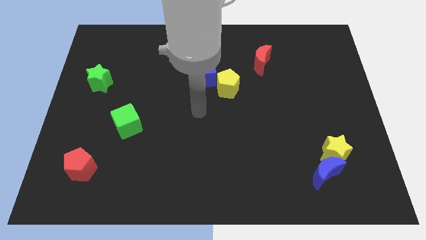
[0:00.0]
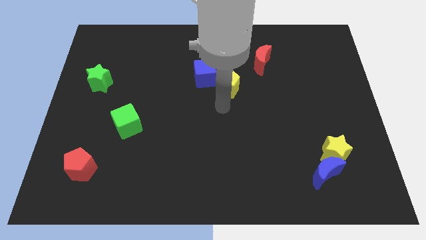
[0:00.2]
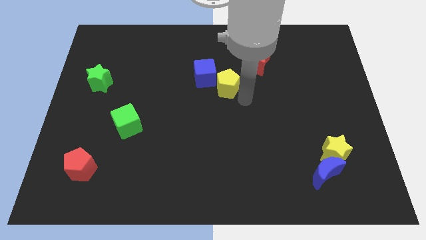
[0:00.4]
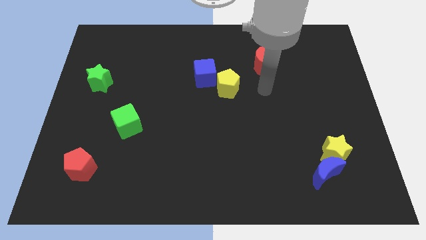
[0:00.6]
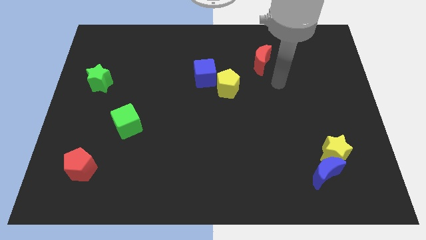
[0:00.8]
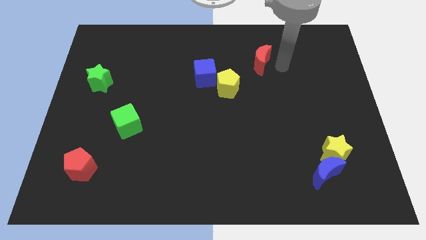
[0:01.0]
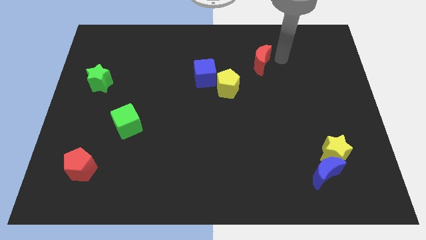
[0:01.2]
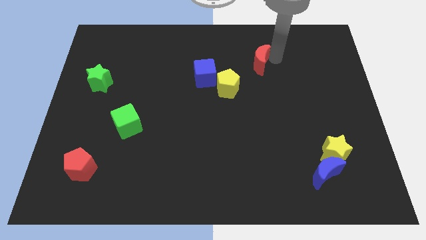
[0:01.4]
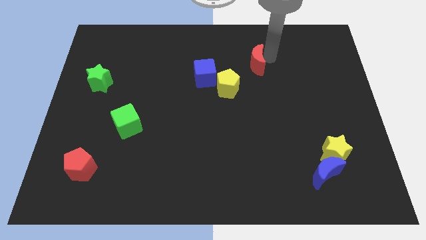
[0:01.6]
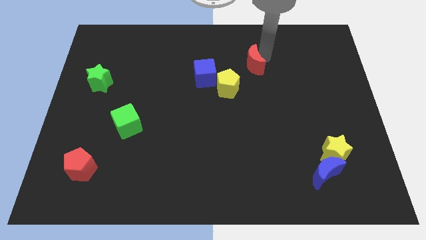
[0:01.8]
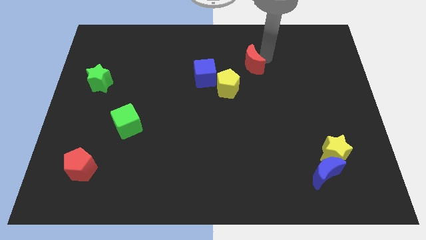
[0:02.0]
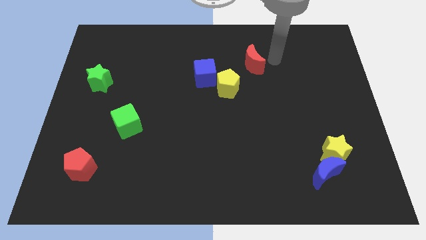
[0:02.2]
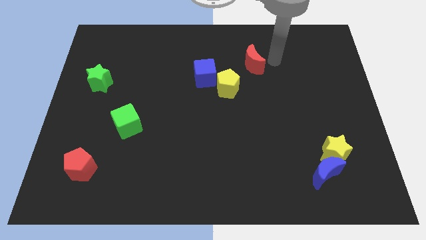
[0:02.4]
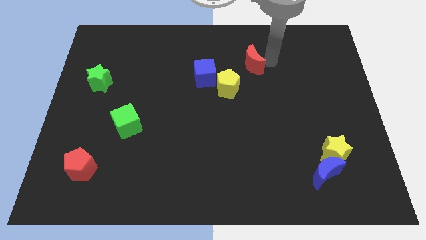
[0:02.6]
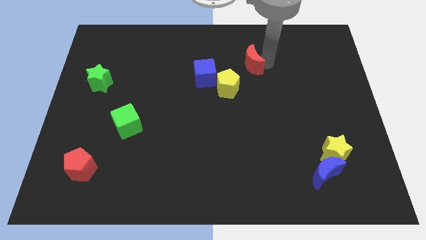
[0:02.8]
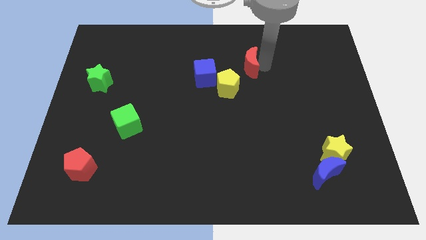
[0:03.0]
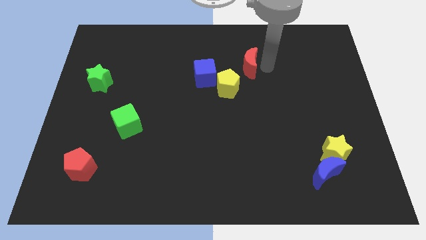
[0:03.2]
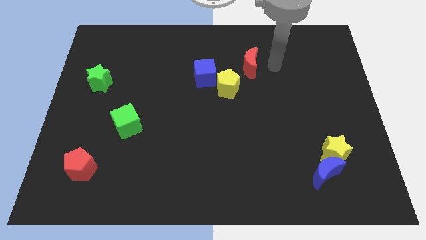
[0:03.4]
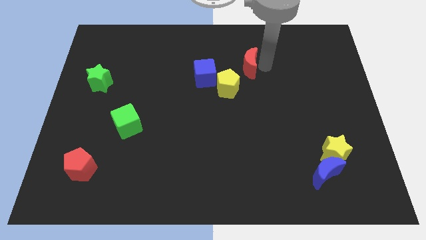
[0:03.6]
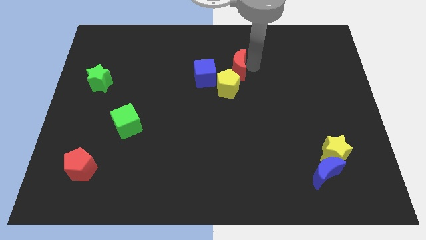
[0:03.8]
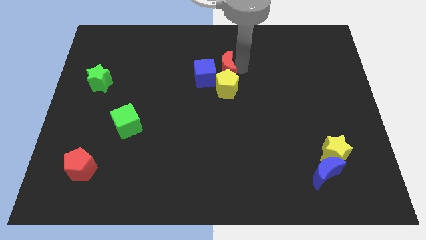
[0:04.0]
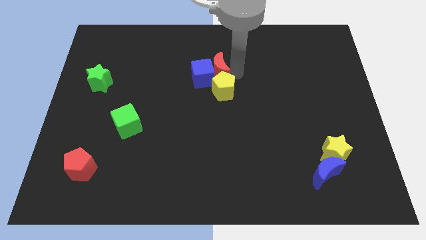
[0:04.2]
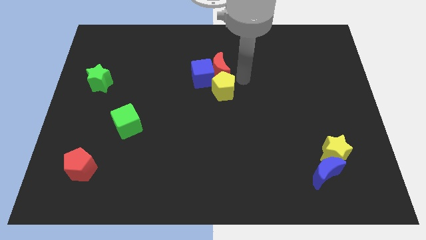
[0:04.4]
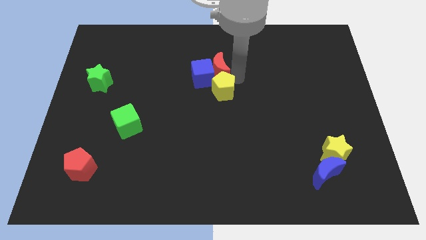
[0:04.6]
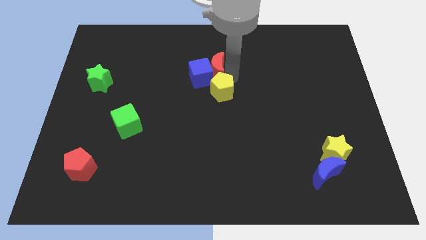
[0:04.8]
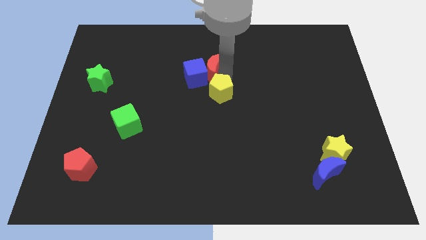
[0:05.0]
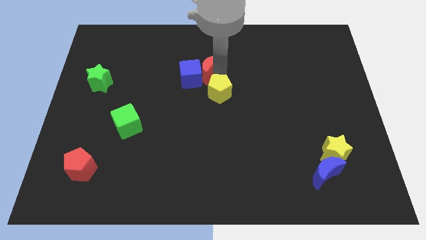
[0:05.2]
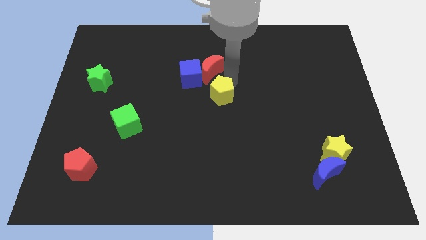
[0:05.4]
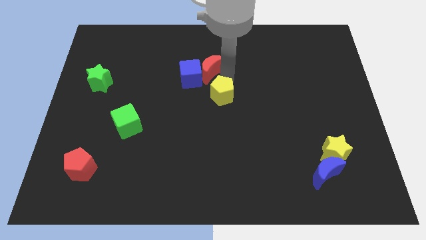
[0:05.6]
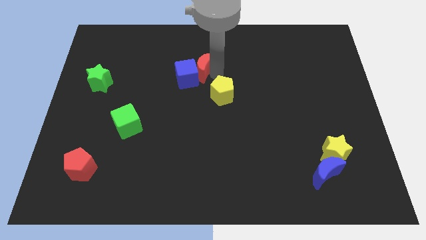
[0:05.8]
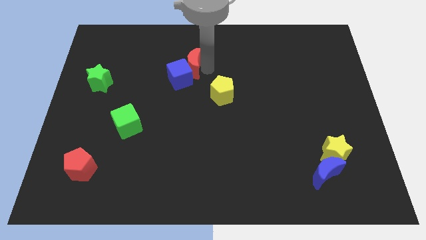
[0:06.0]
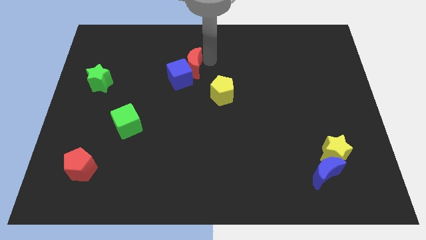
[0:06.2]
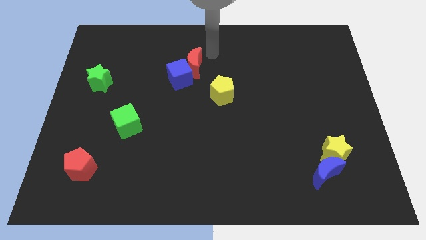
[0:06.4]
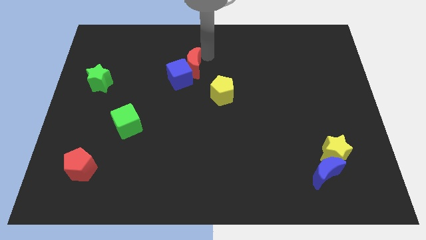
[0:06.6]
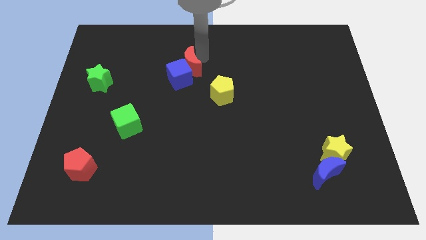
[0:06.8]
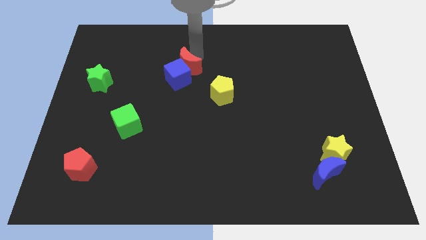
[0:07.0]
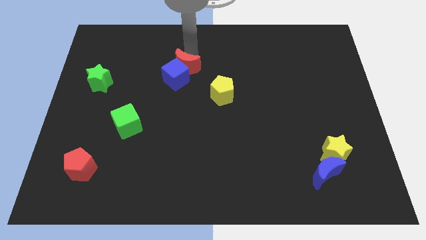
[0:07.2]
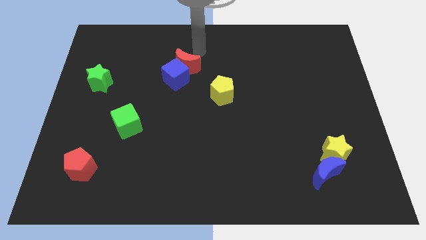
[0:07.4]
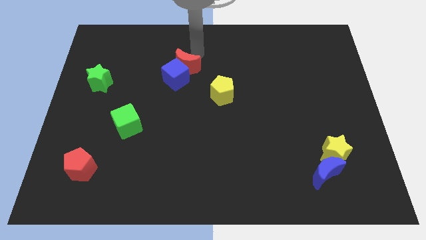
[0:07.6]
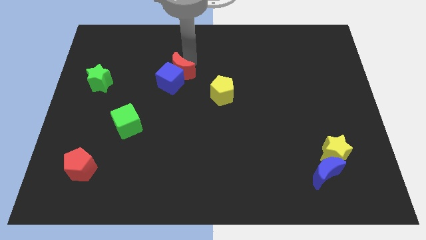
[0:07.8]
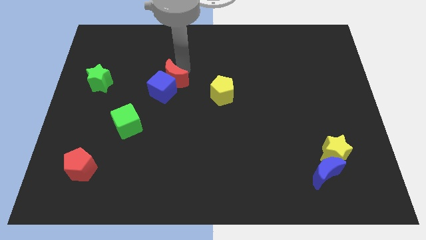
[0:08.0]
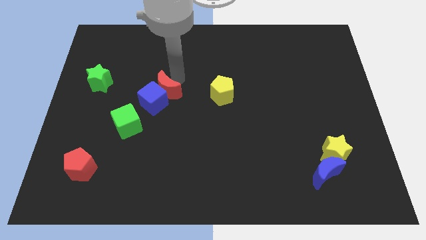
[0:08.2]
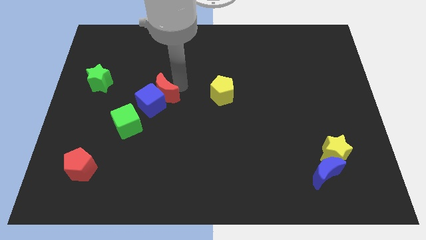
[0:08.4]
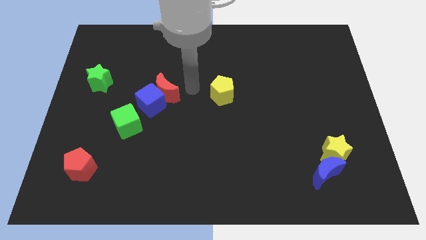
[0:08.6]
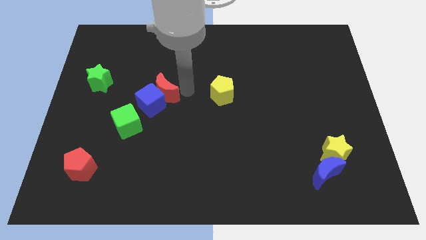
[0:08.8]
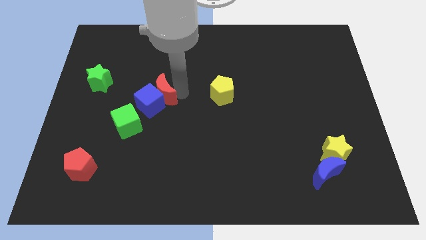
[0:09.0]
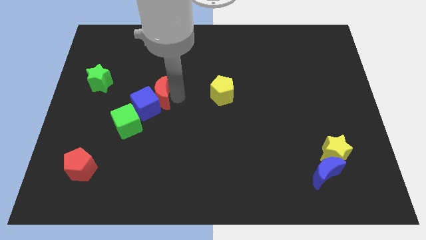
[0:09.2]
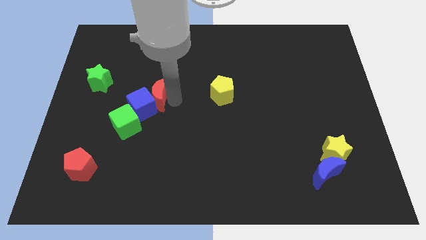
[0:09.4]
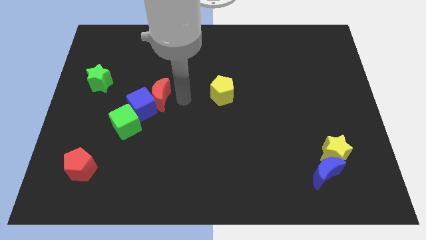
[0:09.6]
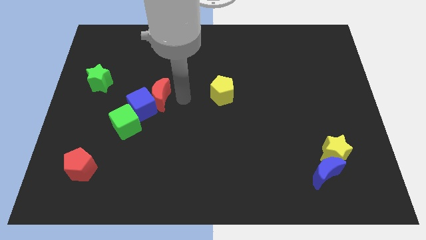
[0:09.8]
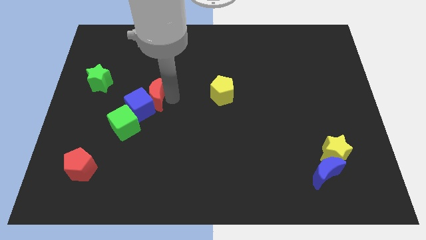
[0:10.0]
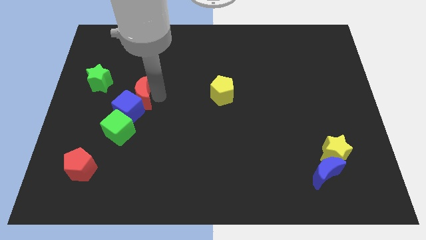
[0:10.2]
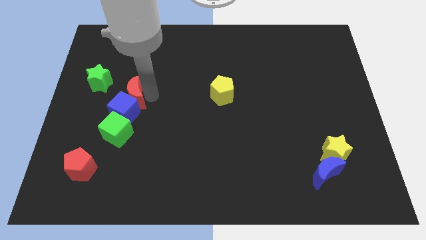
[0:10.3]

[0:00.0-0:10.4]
put the red moon to the bottom right of the green star
